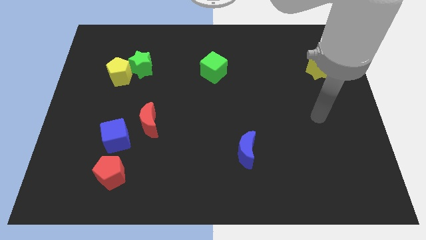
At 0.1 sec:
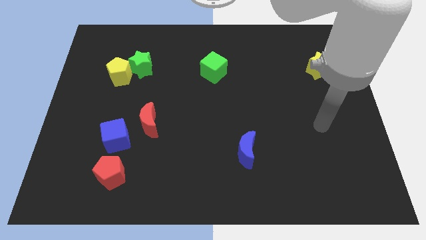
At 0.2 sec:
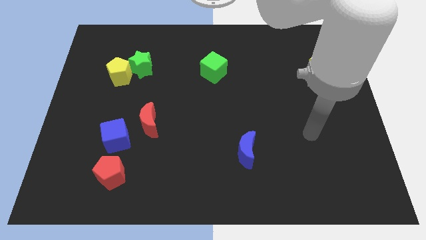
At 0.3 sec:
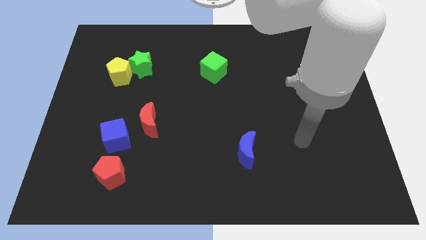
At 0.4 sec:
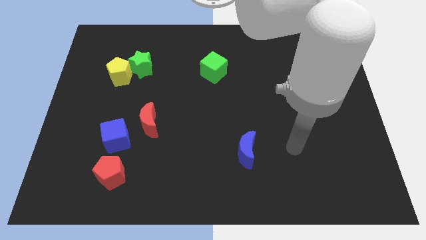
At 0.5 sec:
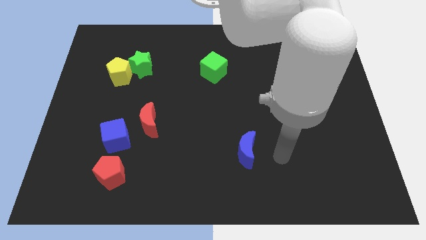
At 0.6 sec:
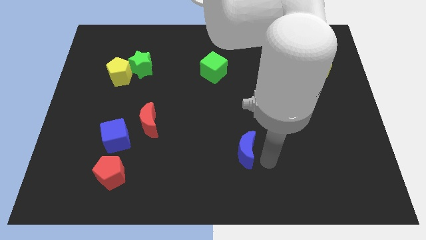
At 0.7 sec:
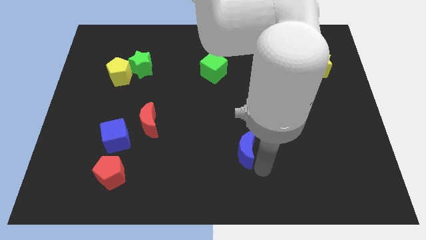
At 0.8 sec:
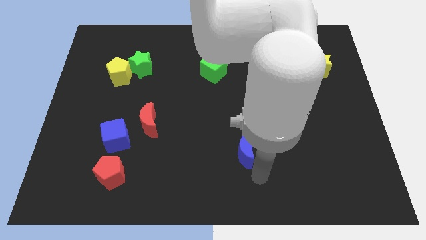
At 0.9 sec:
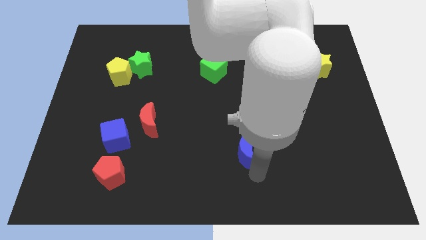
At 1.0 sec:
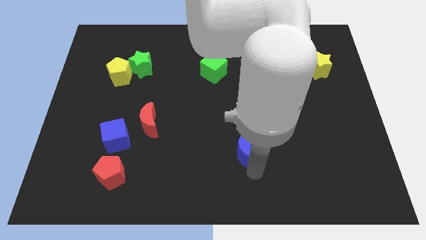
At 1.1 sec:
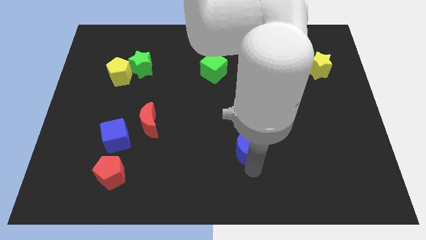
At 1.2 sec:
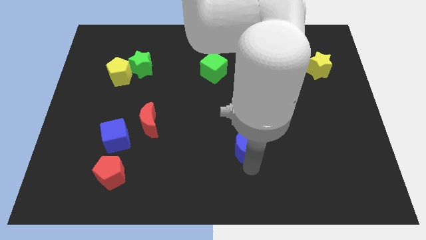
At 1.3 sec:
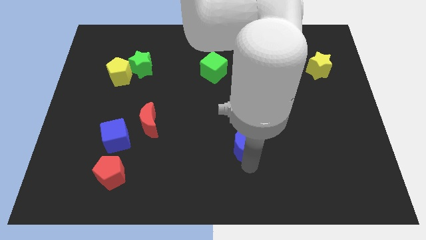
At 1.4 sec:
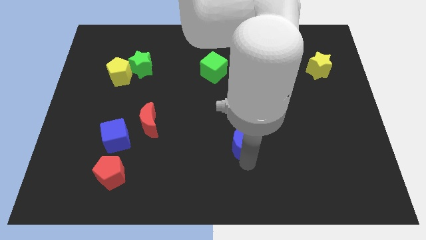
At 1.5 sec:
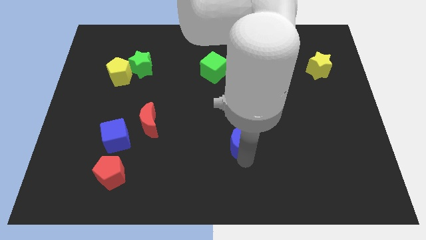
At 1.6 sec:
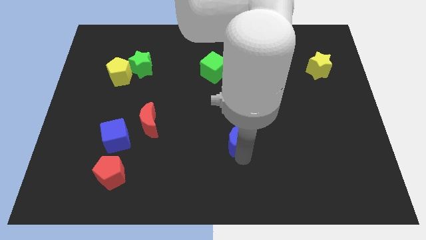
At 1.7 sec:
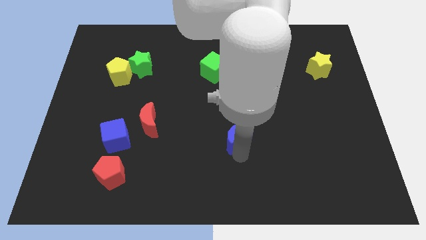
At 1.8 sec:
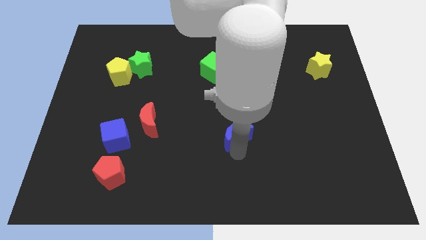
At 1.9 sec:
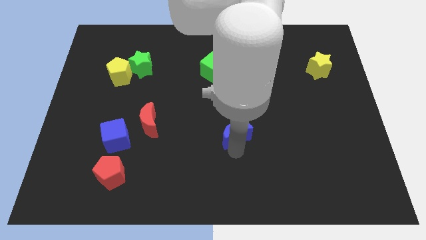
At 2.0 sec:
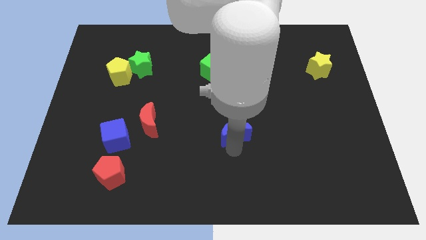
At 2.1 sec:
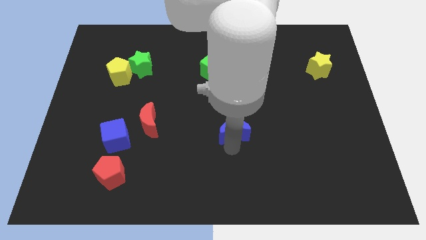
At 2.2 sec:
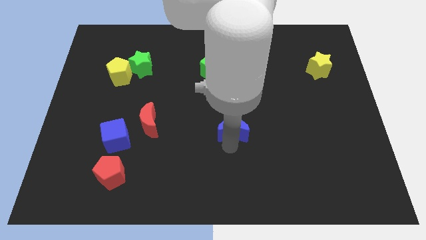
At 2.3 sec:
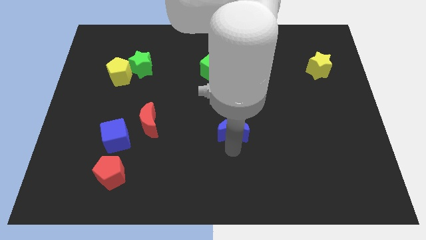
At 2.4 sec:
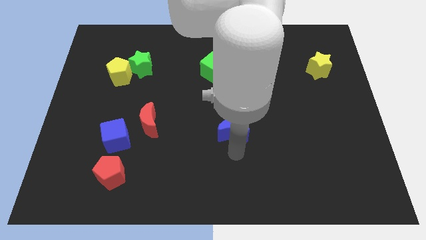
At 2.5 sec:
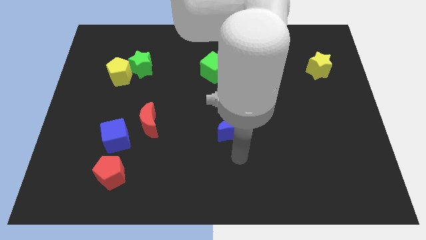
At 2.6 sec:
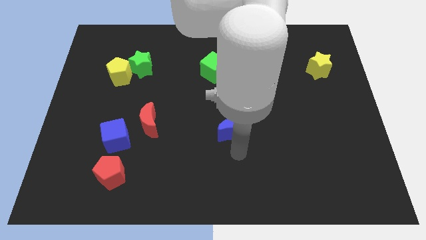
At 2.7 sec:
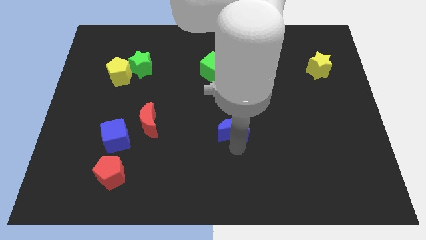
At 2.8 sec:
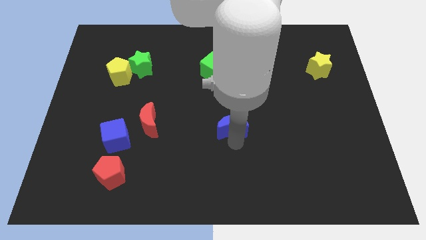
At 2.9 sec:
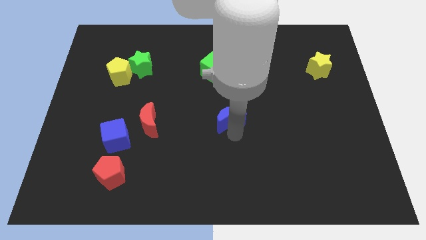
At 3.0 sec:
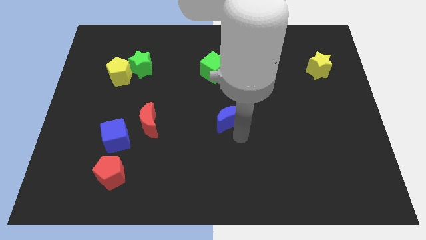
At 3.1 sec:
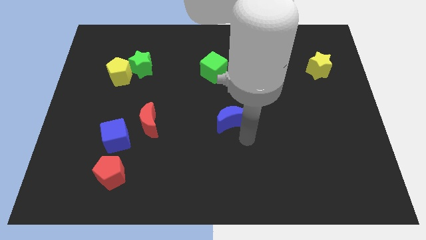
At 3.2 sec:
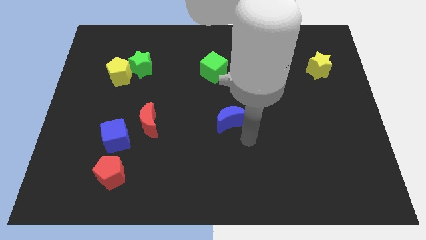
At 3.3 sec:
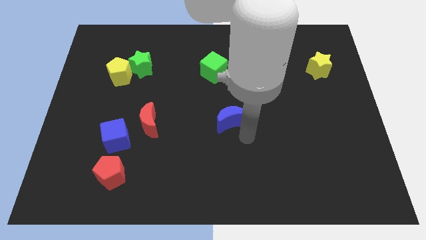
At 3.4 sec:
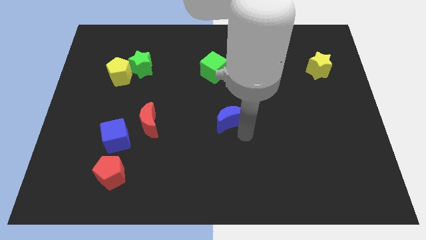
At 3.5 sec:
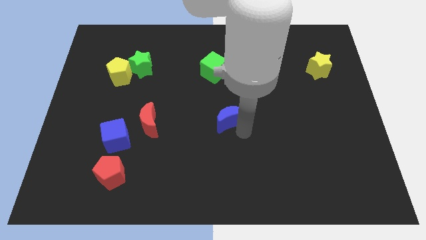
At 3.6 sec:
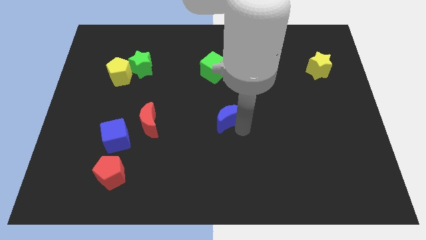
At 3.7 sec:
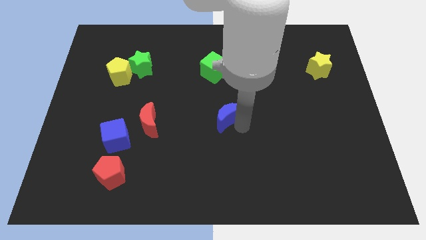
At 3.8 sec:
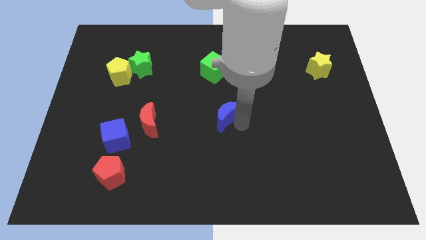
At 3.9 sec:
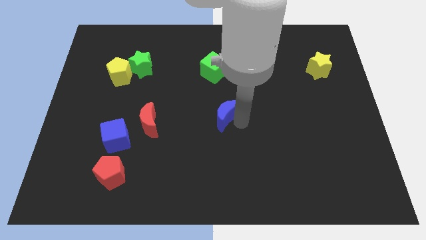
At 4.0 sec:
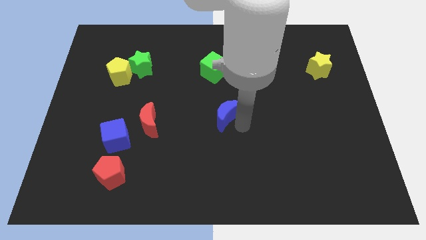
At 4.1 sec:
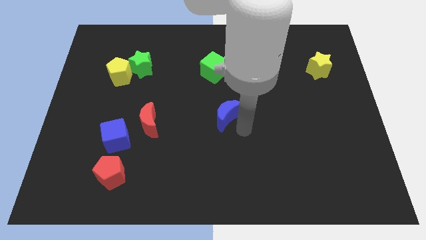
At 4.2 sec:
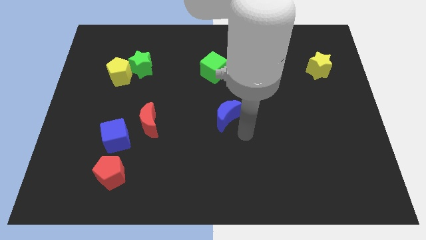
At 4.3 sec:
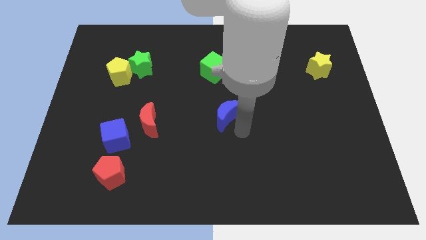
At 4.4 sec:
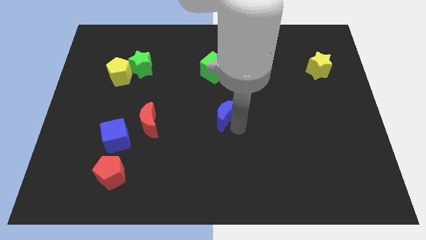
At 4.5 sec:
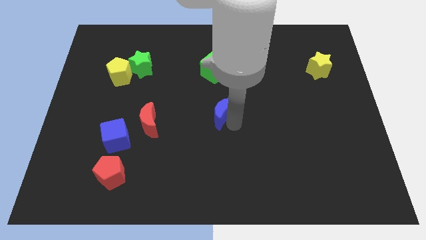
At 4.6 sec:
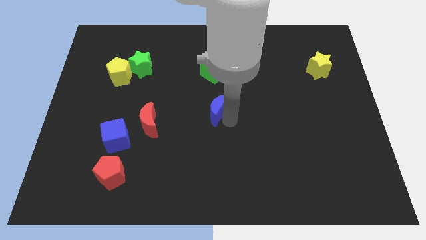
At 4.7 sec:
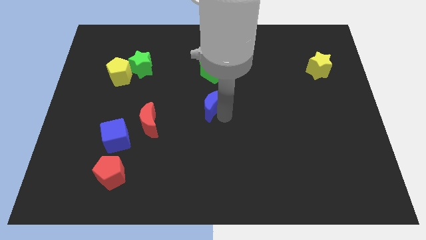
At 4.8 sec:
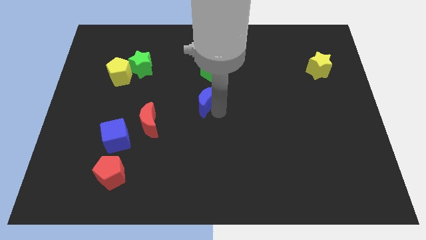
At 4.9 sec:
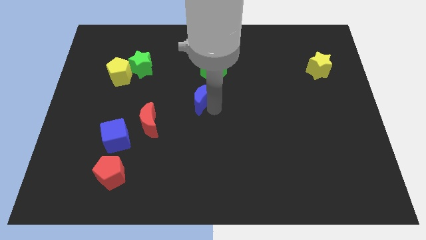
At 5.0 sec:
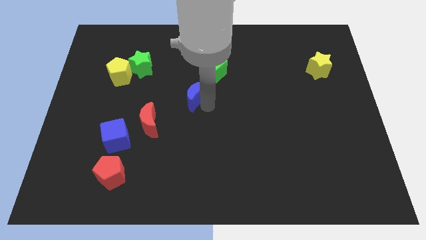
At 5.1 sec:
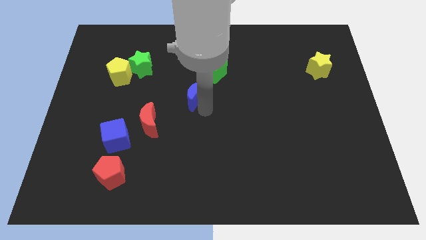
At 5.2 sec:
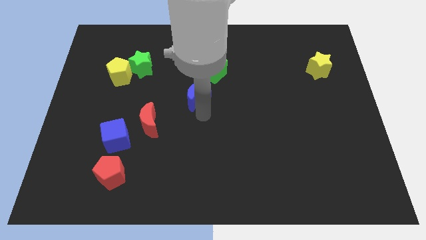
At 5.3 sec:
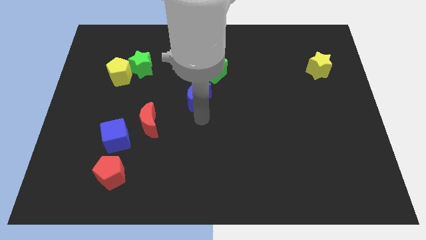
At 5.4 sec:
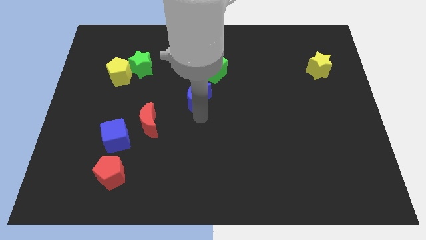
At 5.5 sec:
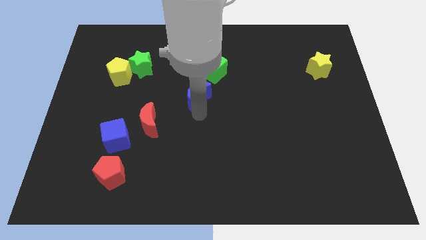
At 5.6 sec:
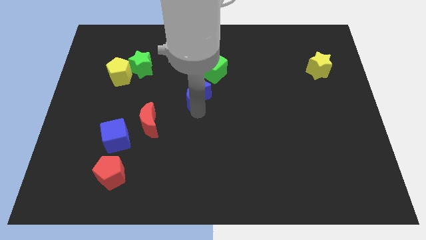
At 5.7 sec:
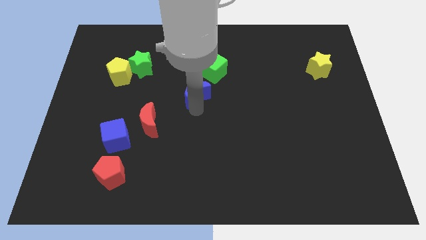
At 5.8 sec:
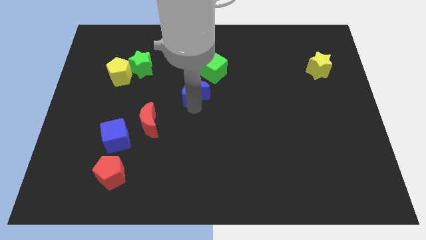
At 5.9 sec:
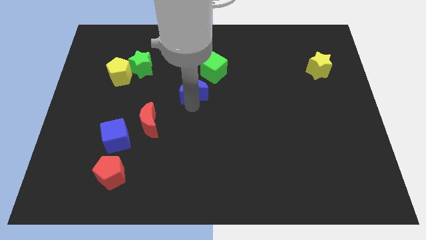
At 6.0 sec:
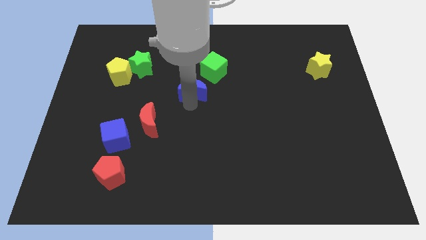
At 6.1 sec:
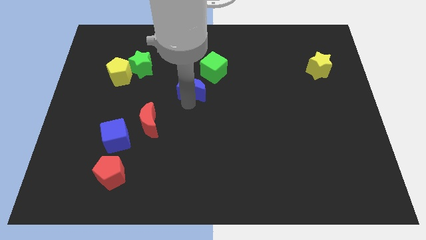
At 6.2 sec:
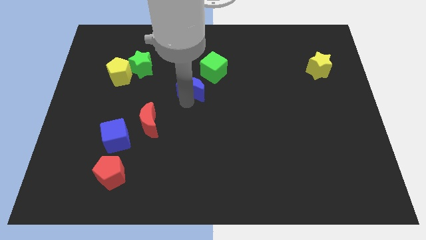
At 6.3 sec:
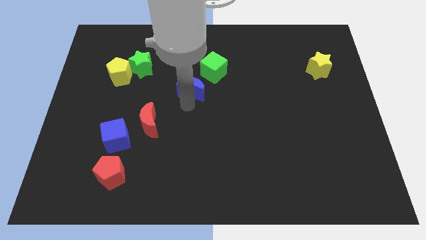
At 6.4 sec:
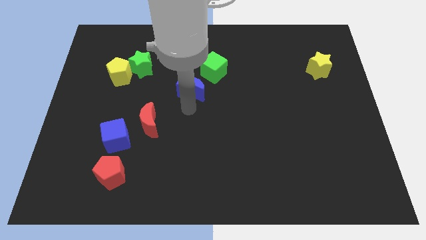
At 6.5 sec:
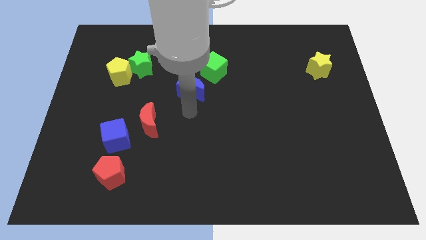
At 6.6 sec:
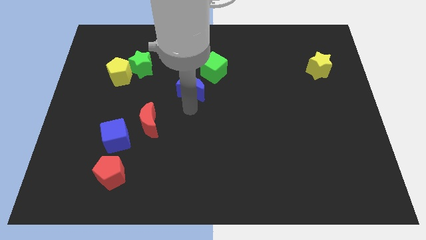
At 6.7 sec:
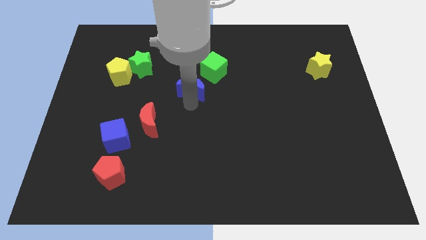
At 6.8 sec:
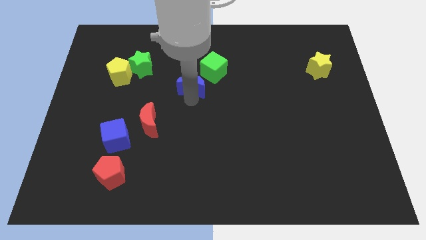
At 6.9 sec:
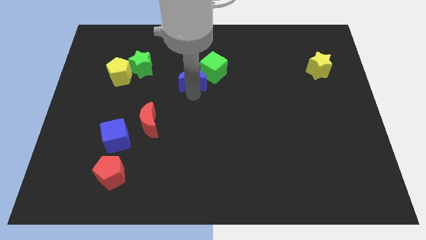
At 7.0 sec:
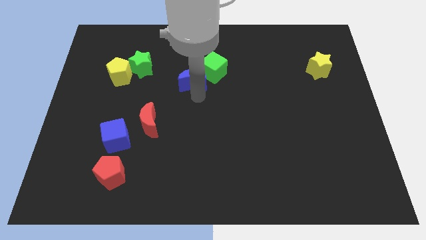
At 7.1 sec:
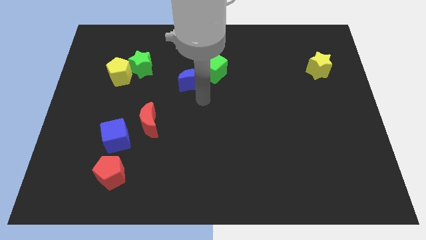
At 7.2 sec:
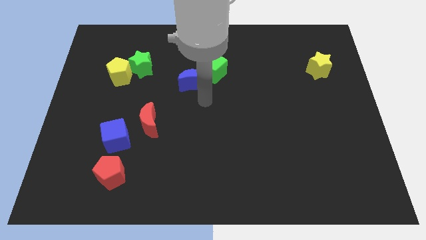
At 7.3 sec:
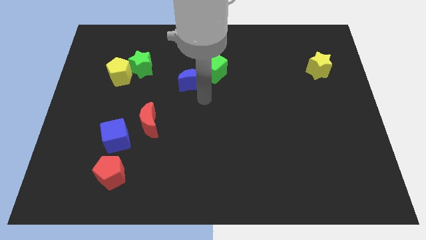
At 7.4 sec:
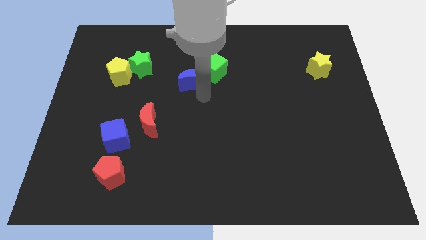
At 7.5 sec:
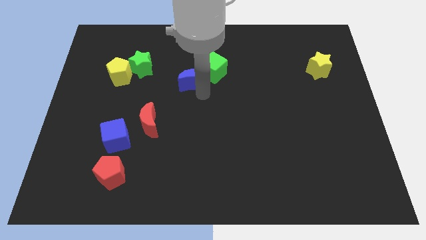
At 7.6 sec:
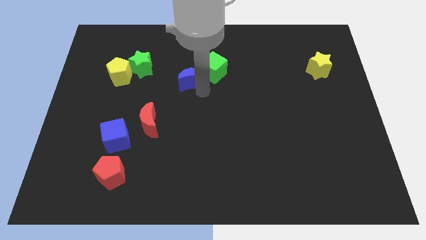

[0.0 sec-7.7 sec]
put the blue moon to the right side of the green star
